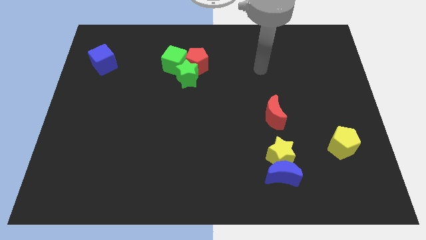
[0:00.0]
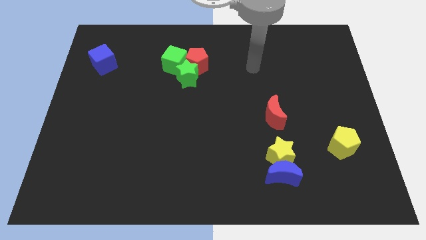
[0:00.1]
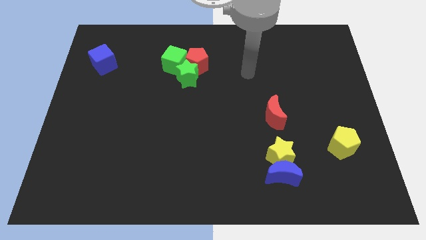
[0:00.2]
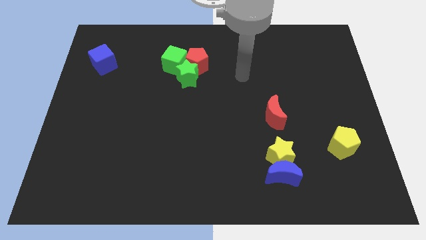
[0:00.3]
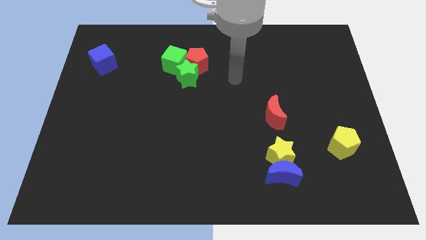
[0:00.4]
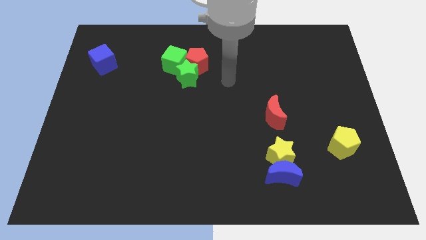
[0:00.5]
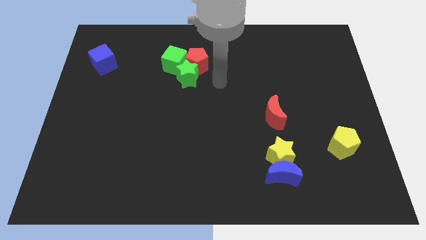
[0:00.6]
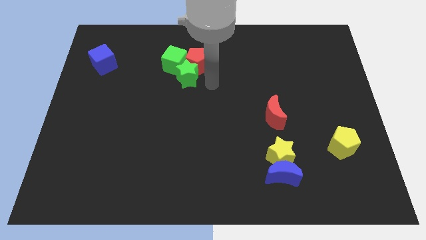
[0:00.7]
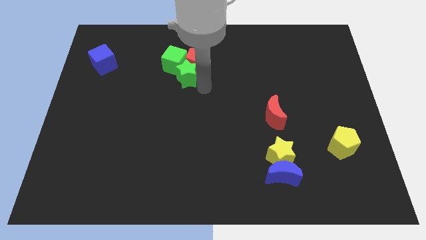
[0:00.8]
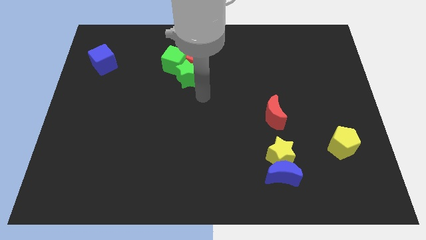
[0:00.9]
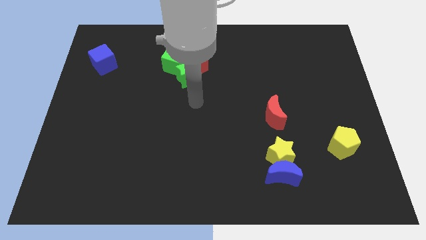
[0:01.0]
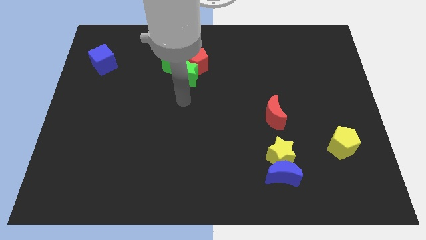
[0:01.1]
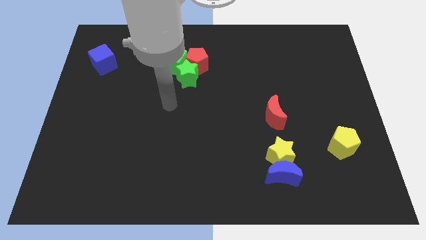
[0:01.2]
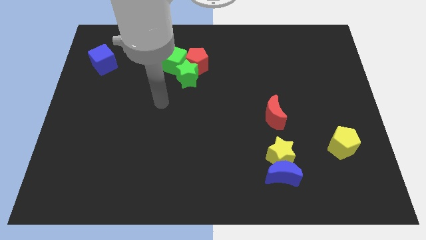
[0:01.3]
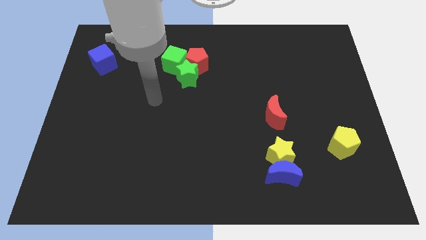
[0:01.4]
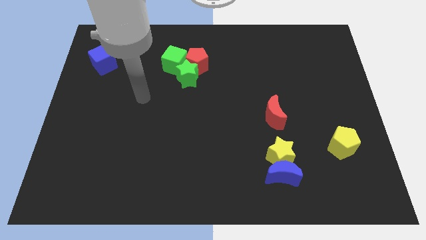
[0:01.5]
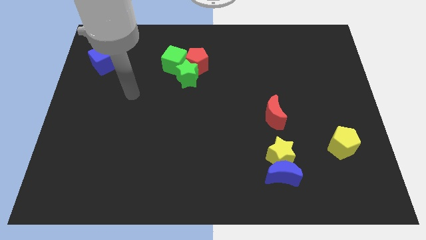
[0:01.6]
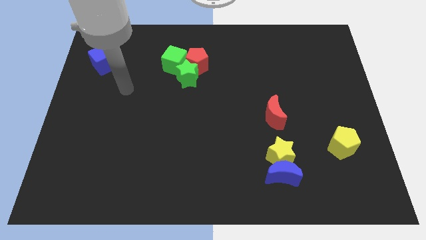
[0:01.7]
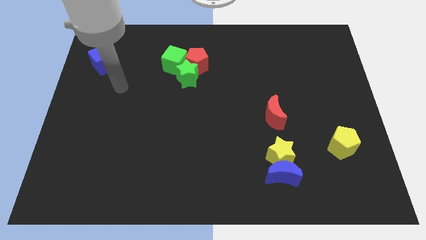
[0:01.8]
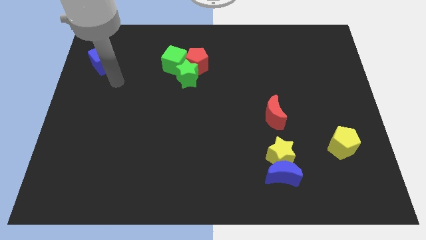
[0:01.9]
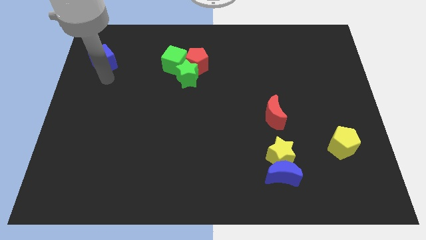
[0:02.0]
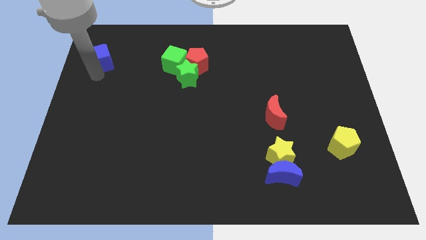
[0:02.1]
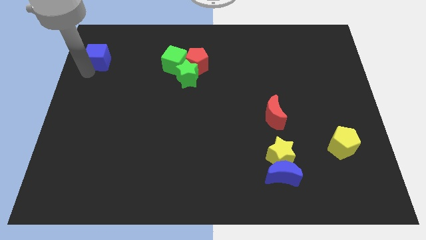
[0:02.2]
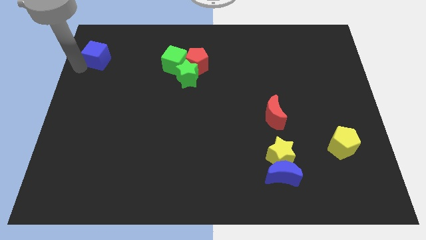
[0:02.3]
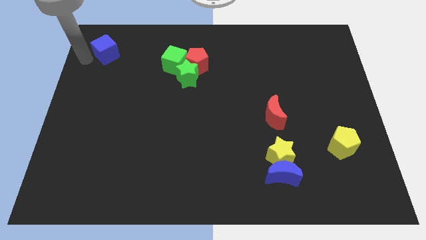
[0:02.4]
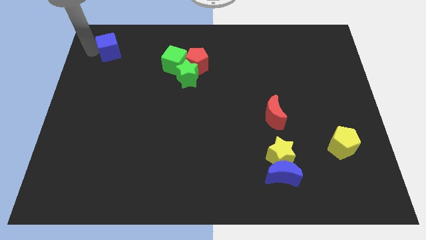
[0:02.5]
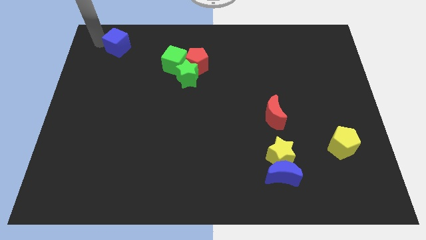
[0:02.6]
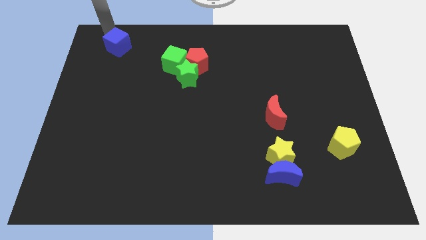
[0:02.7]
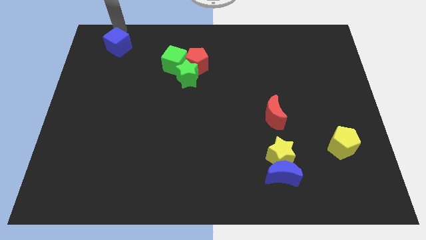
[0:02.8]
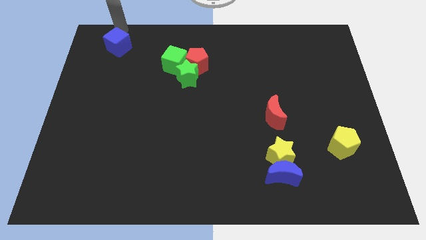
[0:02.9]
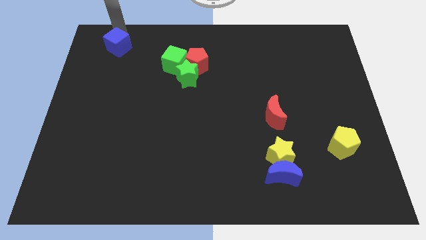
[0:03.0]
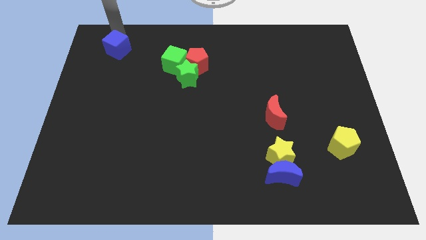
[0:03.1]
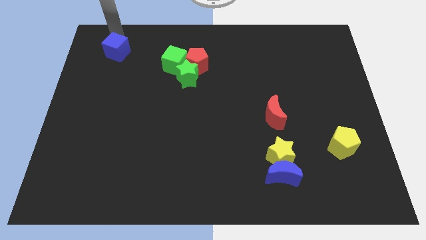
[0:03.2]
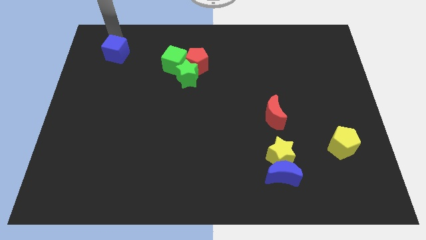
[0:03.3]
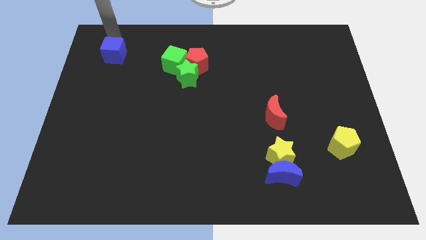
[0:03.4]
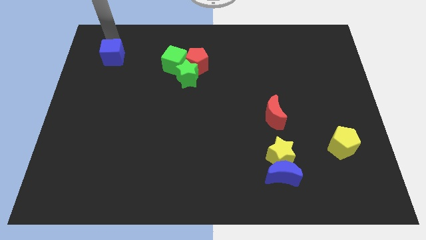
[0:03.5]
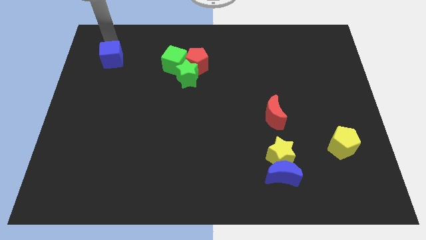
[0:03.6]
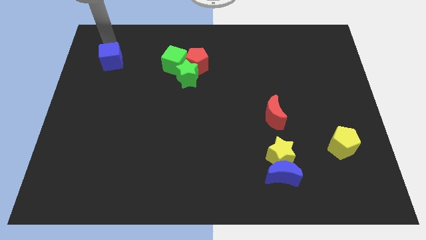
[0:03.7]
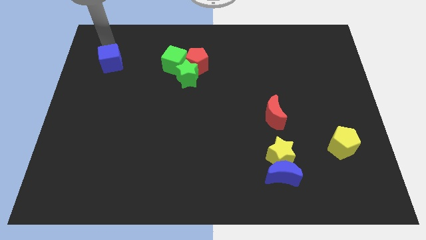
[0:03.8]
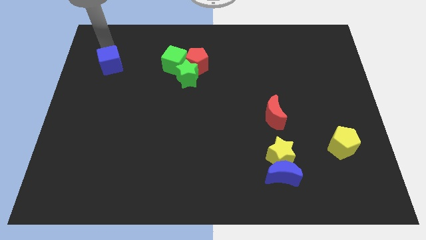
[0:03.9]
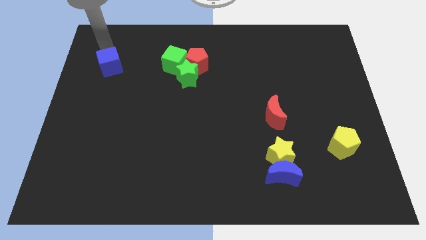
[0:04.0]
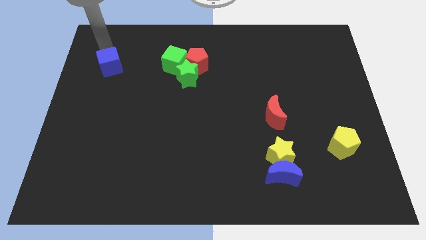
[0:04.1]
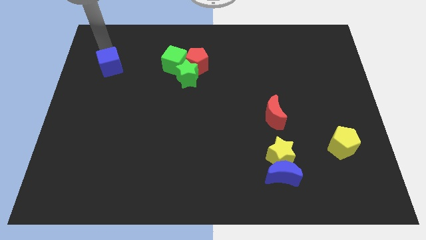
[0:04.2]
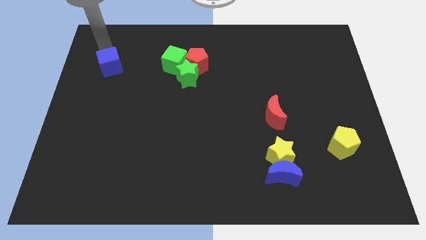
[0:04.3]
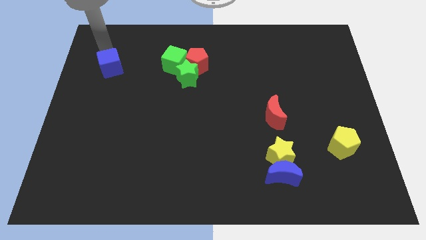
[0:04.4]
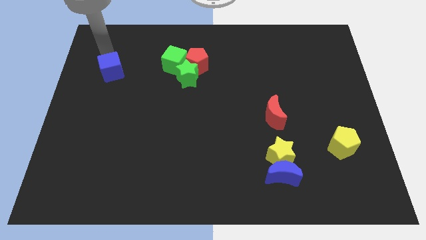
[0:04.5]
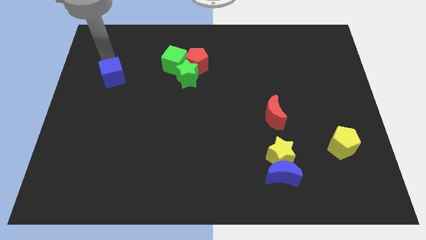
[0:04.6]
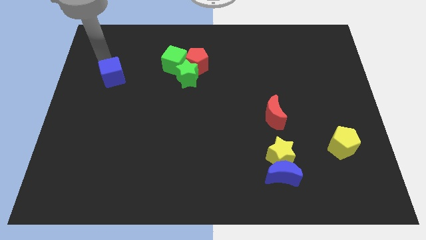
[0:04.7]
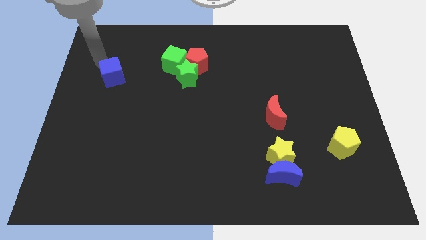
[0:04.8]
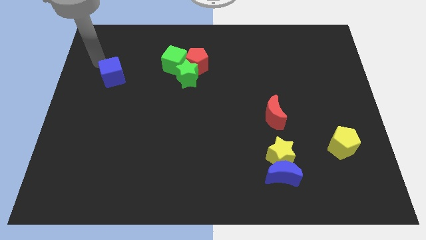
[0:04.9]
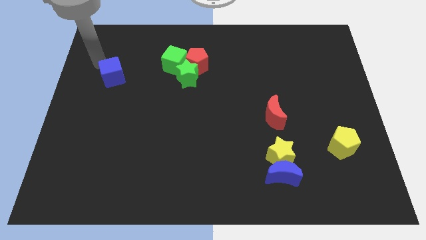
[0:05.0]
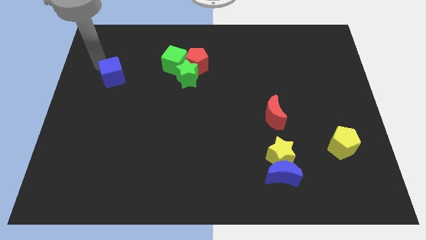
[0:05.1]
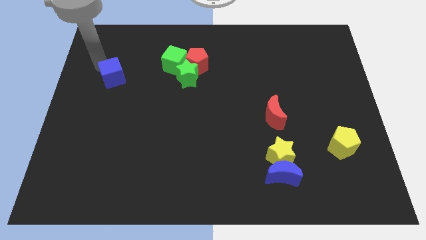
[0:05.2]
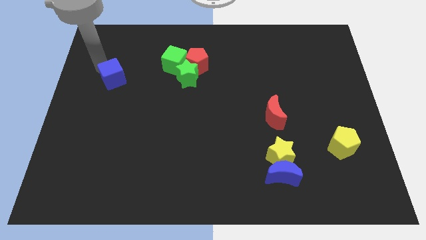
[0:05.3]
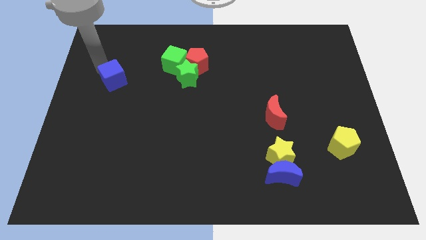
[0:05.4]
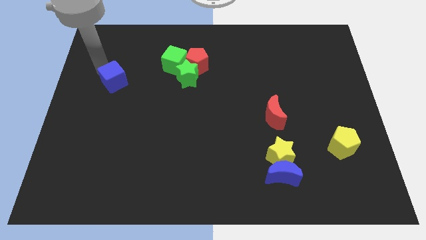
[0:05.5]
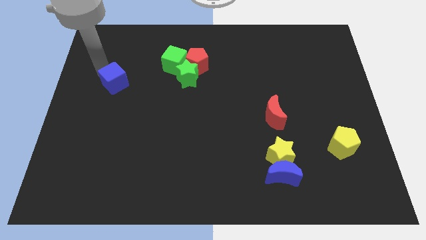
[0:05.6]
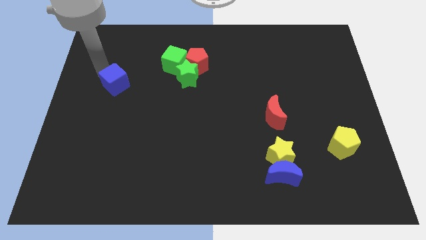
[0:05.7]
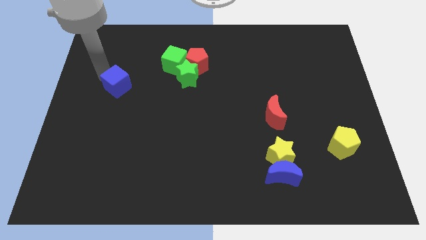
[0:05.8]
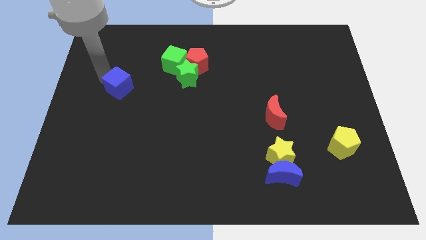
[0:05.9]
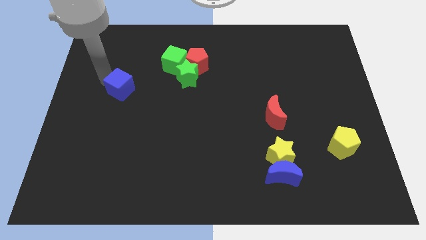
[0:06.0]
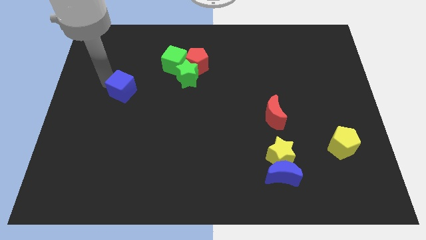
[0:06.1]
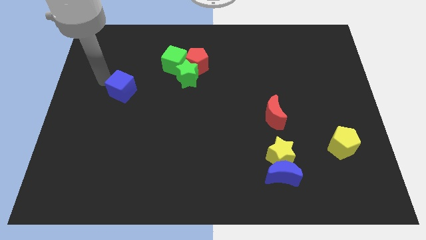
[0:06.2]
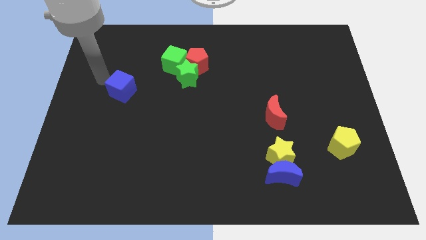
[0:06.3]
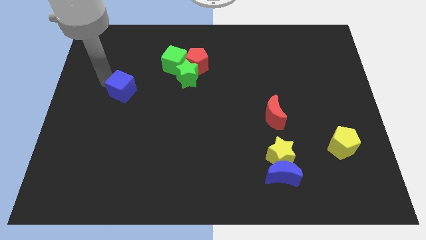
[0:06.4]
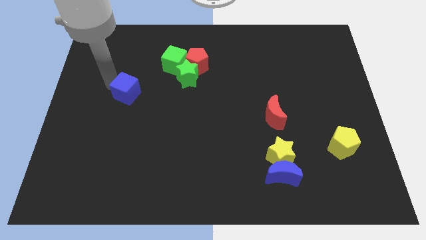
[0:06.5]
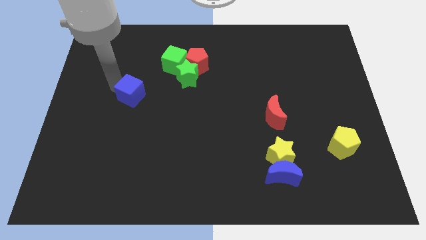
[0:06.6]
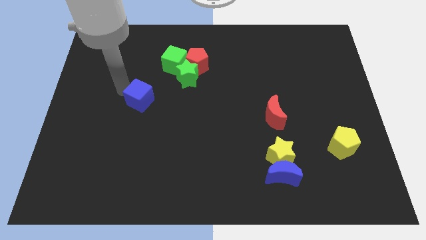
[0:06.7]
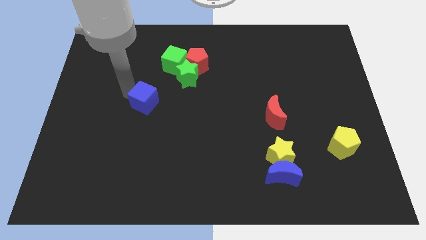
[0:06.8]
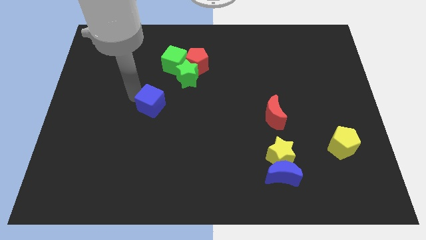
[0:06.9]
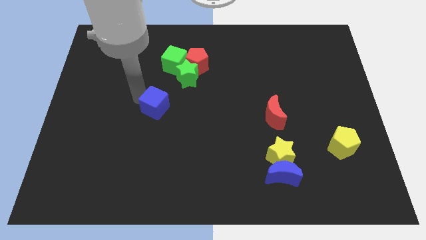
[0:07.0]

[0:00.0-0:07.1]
slide the blue cube diagonally downwards and to the right

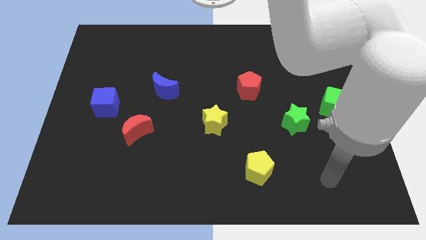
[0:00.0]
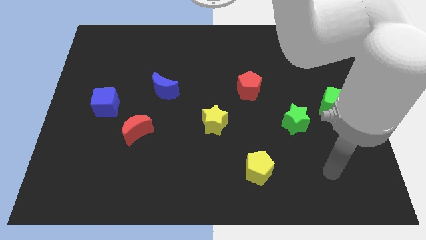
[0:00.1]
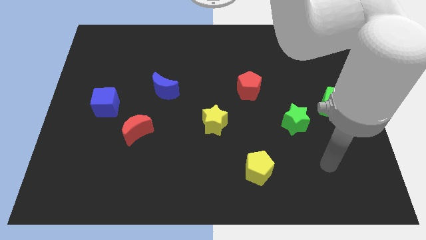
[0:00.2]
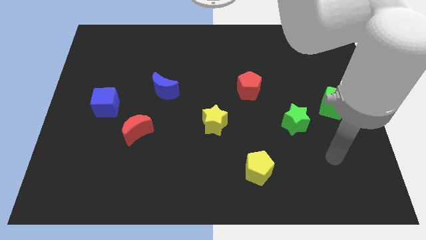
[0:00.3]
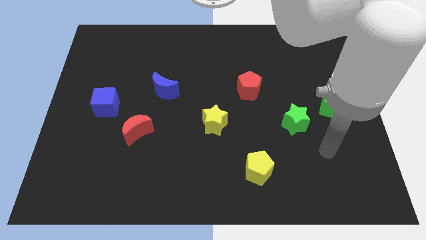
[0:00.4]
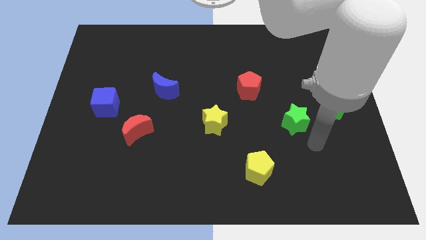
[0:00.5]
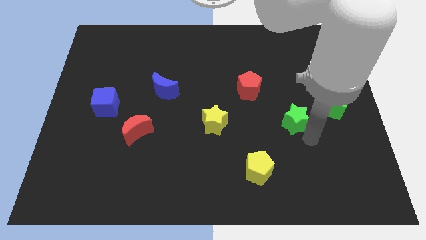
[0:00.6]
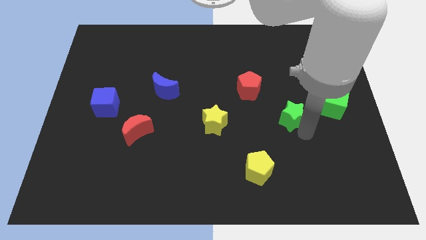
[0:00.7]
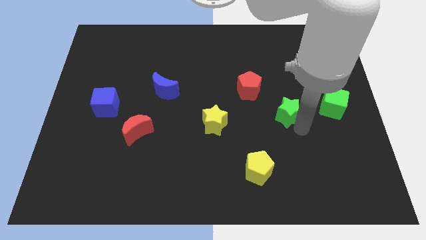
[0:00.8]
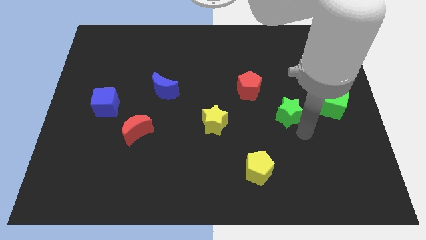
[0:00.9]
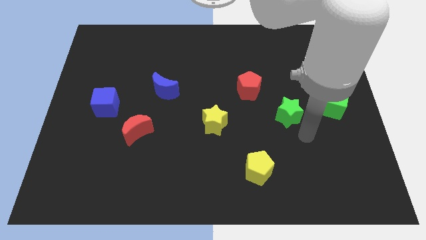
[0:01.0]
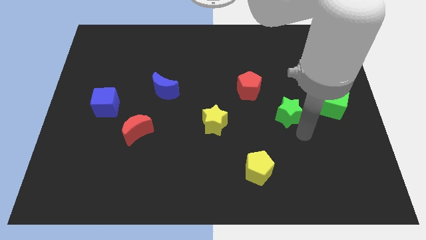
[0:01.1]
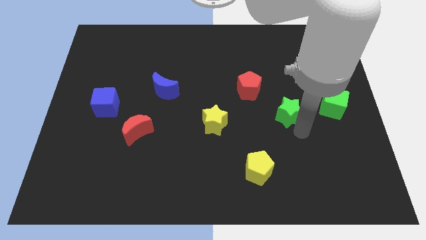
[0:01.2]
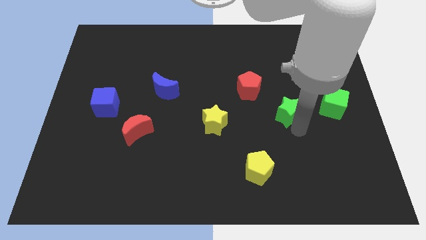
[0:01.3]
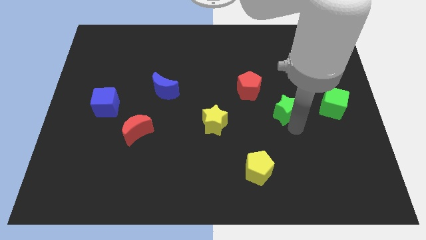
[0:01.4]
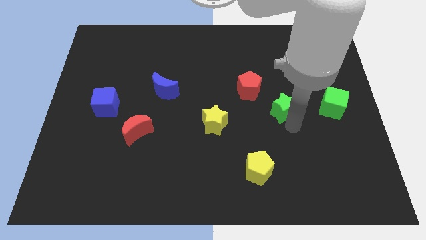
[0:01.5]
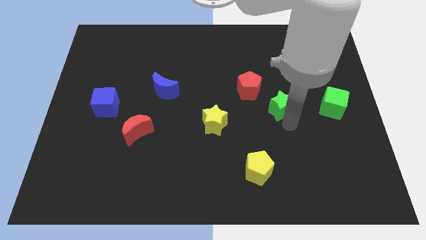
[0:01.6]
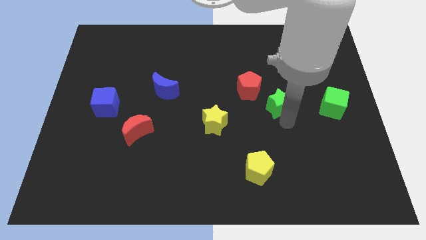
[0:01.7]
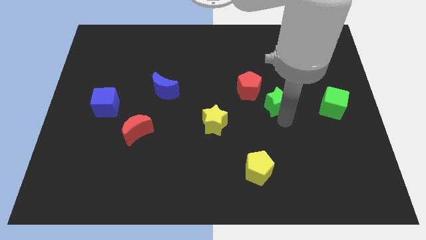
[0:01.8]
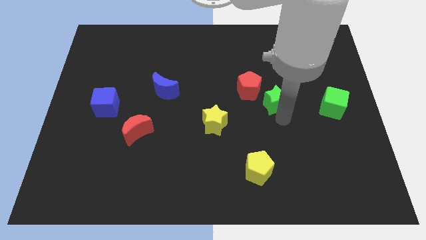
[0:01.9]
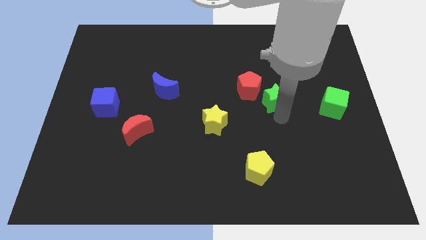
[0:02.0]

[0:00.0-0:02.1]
push the green star somewhat up and to the left diagonally
